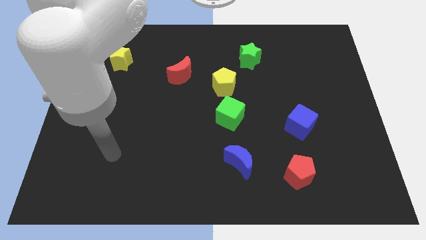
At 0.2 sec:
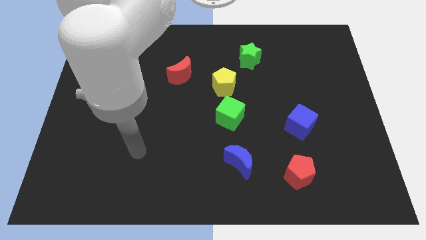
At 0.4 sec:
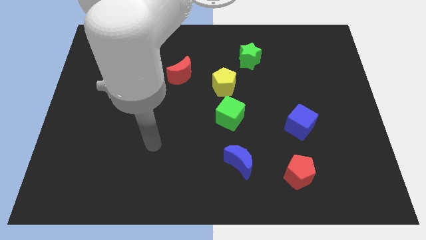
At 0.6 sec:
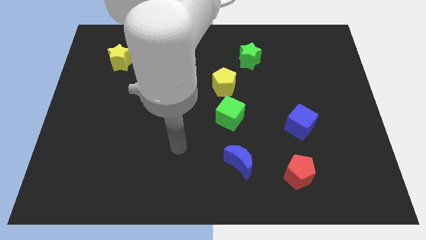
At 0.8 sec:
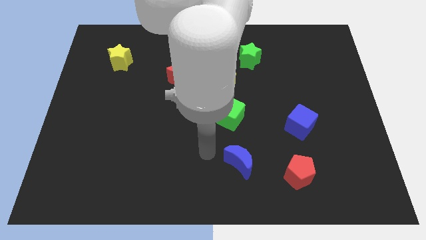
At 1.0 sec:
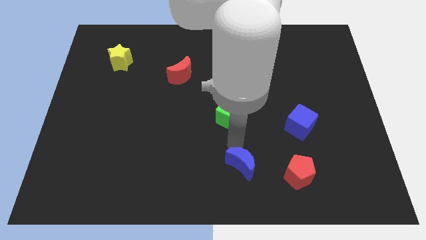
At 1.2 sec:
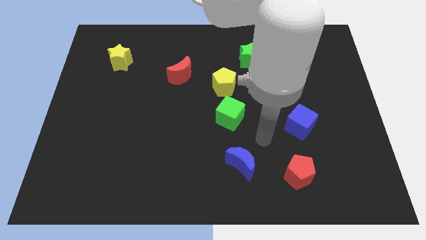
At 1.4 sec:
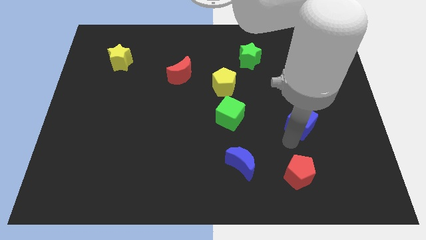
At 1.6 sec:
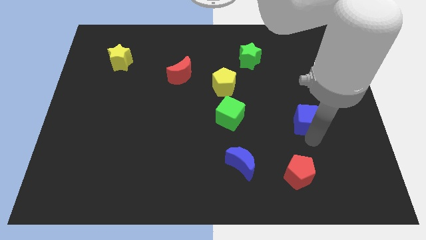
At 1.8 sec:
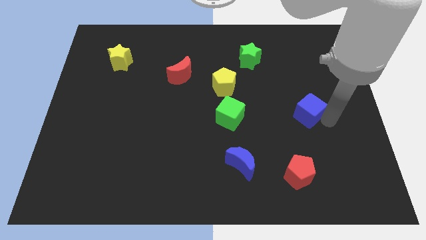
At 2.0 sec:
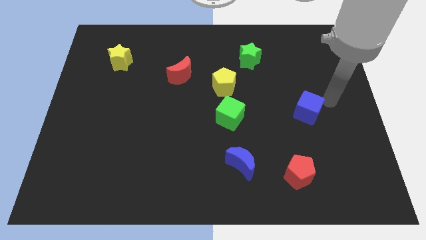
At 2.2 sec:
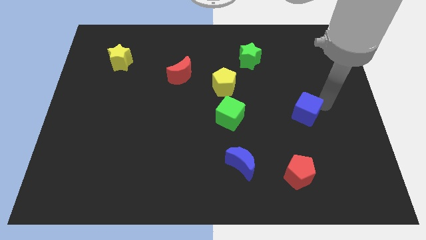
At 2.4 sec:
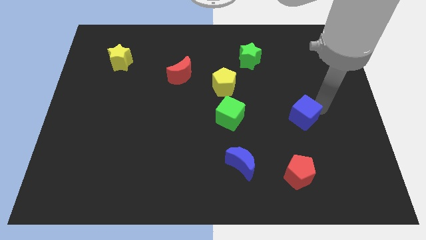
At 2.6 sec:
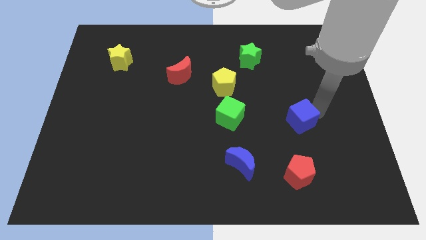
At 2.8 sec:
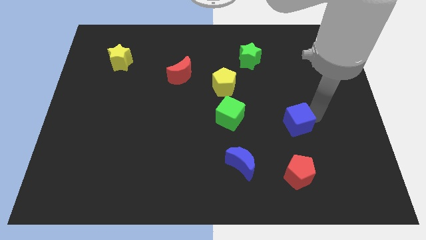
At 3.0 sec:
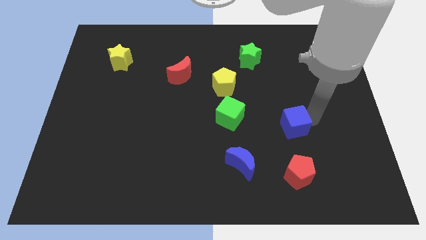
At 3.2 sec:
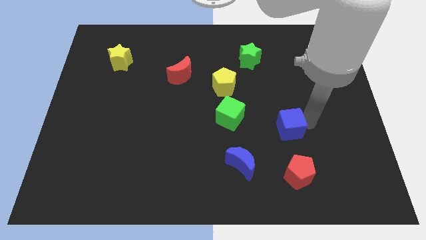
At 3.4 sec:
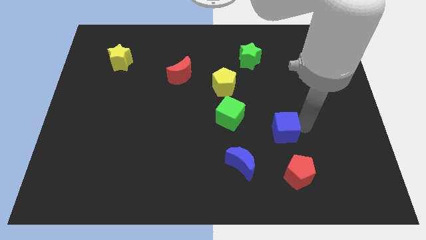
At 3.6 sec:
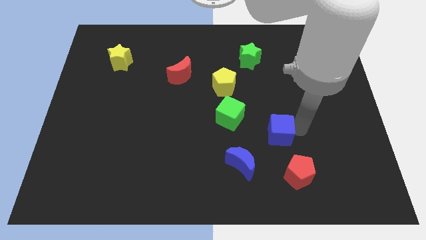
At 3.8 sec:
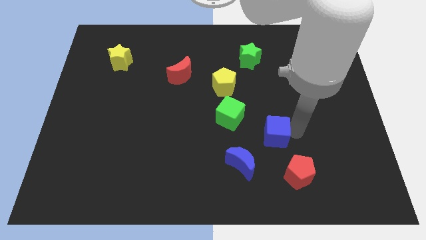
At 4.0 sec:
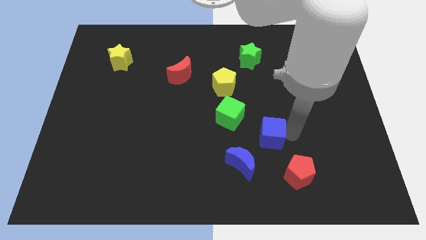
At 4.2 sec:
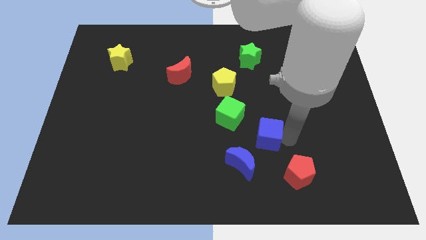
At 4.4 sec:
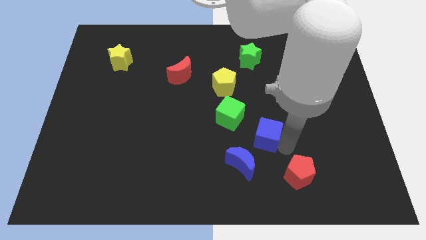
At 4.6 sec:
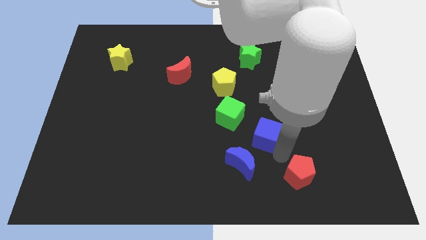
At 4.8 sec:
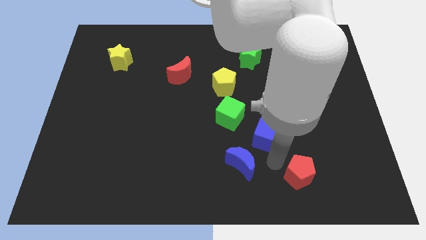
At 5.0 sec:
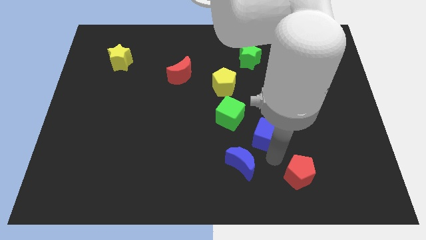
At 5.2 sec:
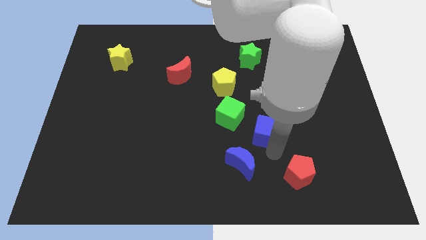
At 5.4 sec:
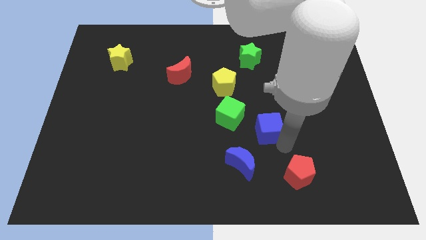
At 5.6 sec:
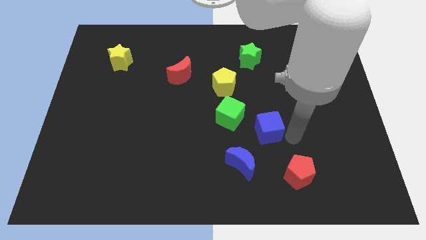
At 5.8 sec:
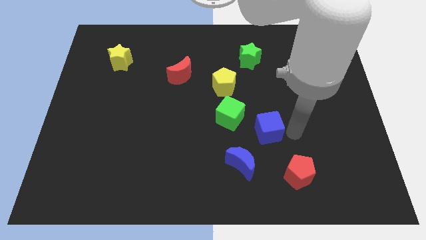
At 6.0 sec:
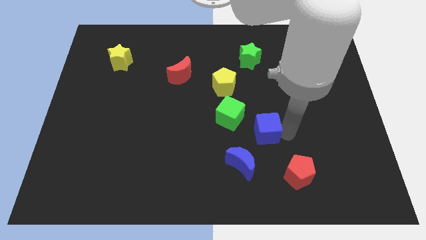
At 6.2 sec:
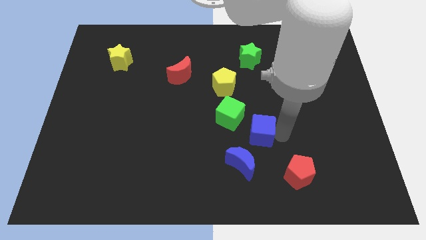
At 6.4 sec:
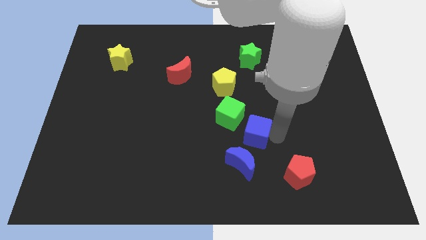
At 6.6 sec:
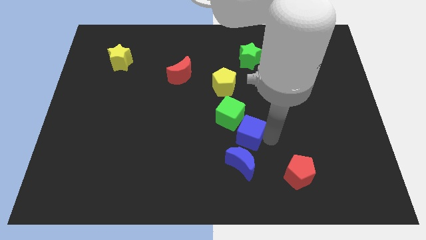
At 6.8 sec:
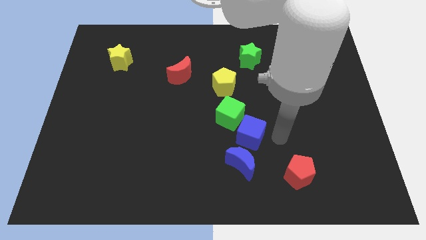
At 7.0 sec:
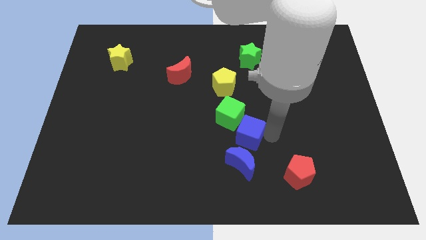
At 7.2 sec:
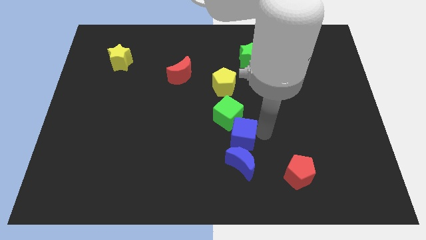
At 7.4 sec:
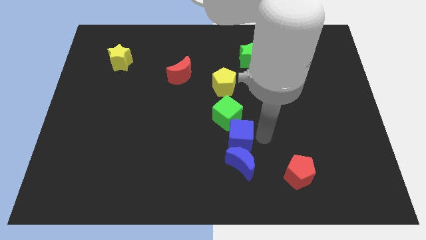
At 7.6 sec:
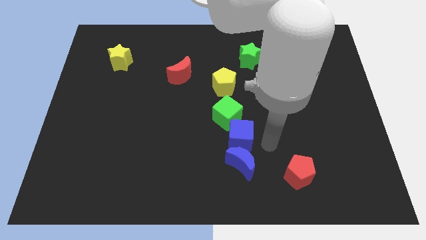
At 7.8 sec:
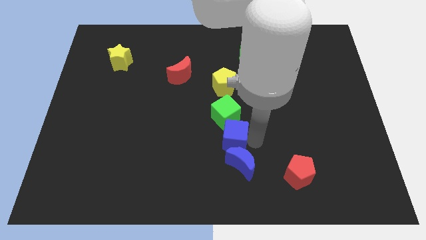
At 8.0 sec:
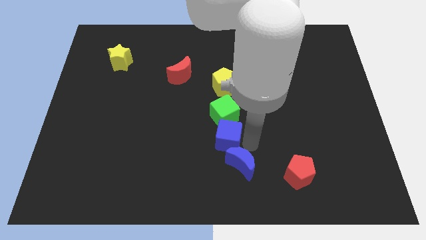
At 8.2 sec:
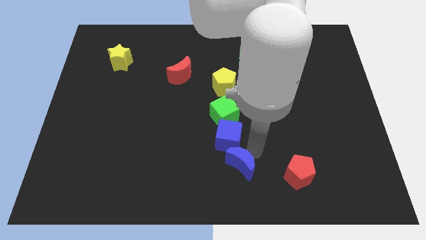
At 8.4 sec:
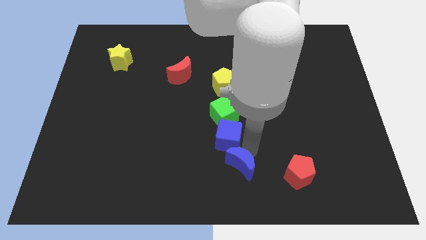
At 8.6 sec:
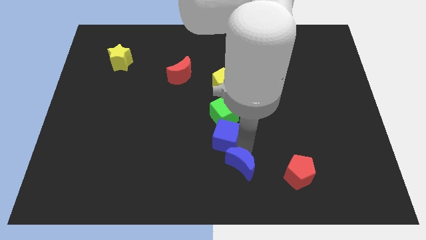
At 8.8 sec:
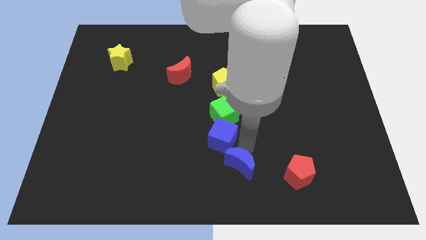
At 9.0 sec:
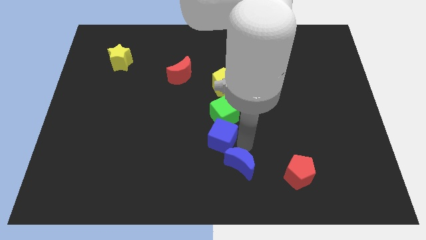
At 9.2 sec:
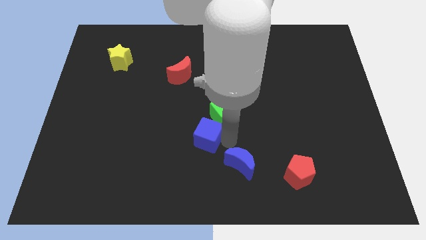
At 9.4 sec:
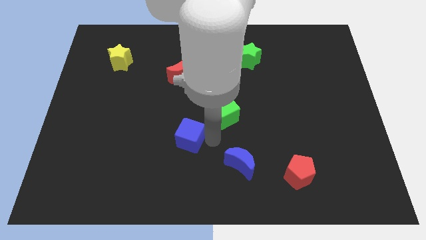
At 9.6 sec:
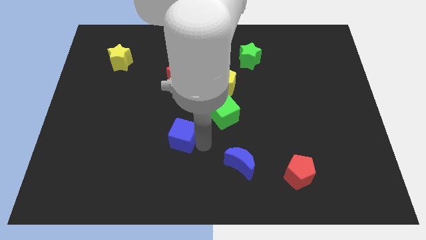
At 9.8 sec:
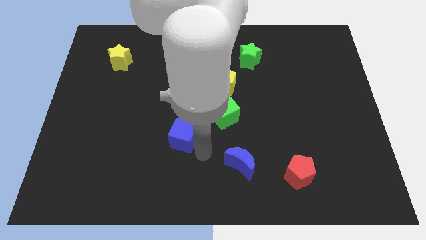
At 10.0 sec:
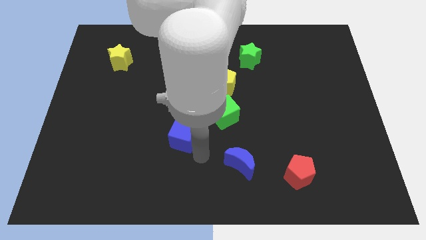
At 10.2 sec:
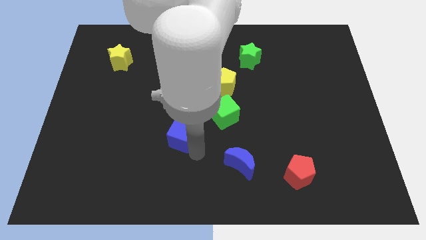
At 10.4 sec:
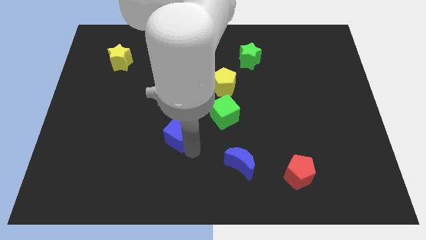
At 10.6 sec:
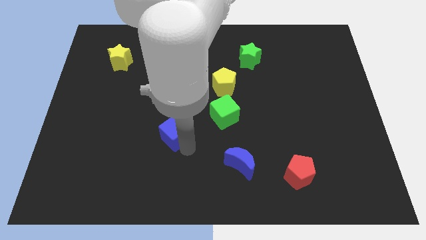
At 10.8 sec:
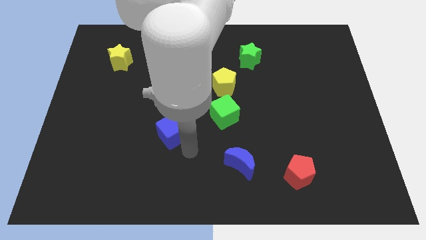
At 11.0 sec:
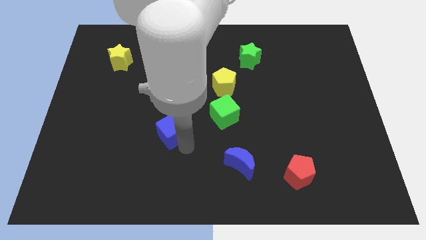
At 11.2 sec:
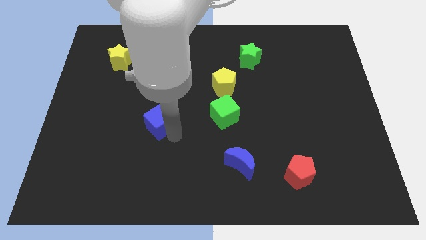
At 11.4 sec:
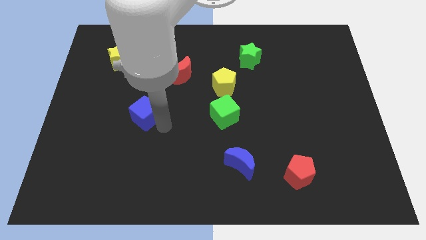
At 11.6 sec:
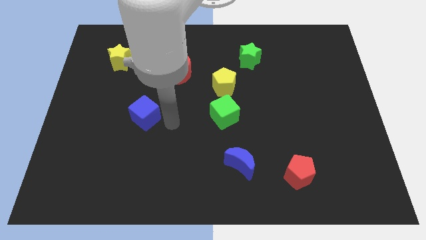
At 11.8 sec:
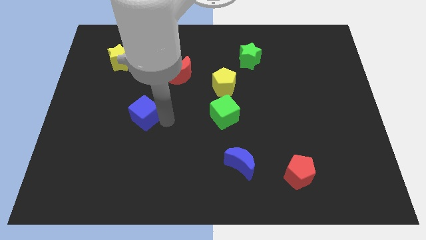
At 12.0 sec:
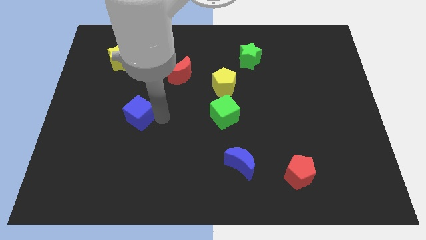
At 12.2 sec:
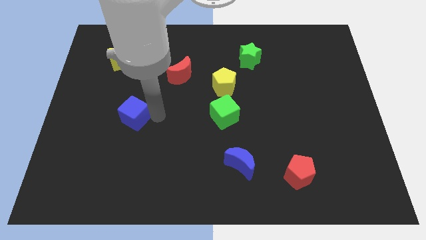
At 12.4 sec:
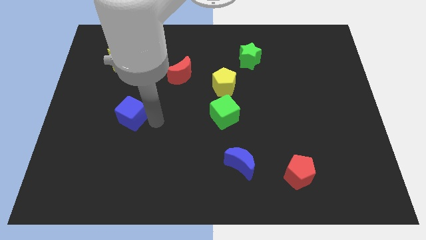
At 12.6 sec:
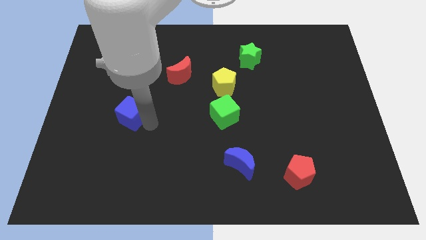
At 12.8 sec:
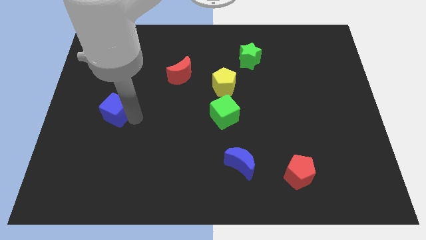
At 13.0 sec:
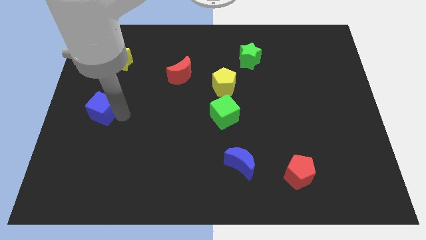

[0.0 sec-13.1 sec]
slide the blue cube to the center left

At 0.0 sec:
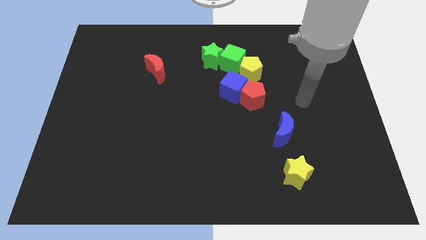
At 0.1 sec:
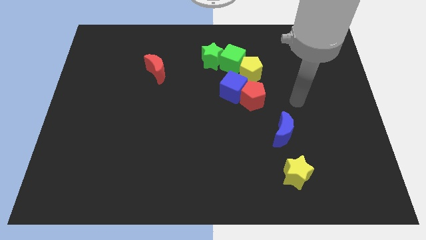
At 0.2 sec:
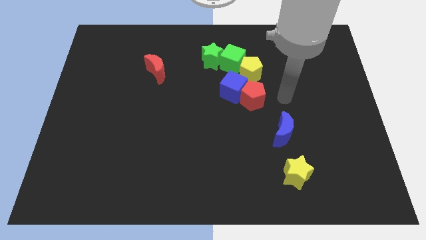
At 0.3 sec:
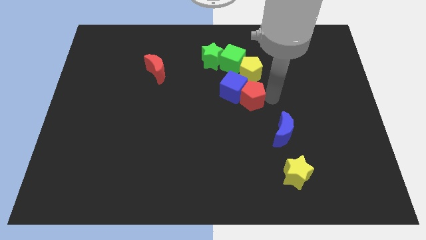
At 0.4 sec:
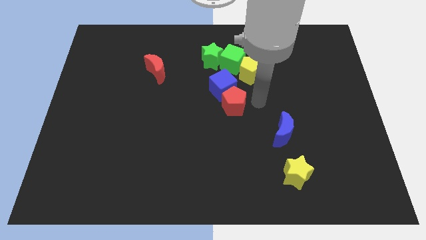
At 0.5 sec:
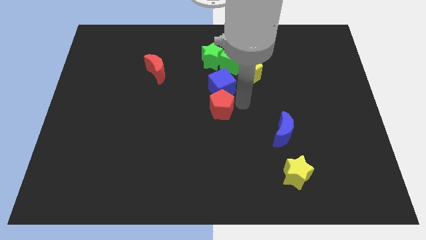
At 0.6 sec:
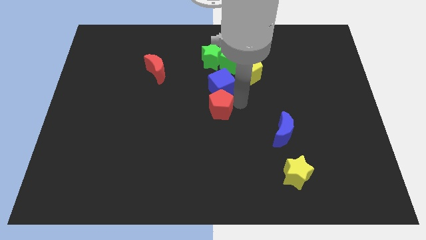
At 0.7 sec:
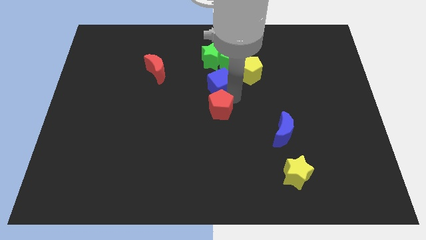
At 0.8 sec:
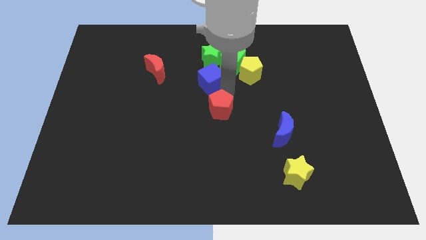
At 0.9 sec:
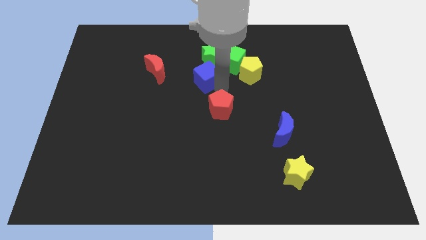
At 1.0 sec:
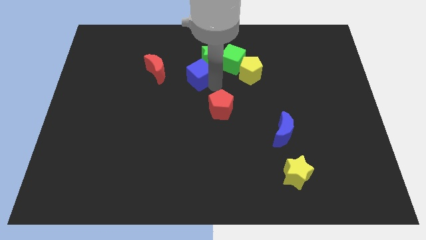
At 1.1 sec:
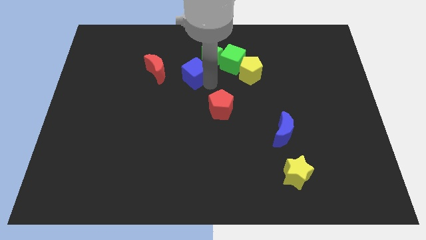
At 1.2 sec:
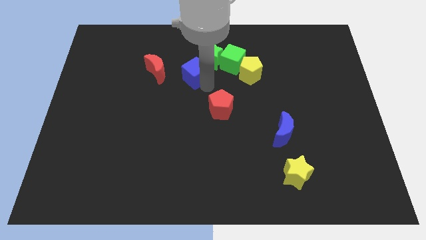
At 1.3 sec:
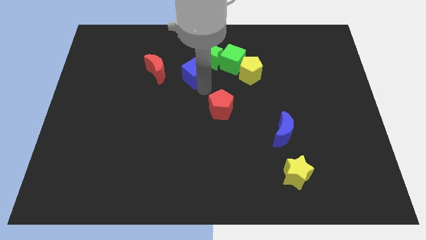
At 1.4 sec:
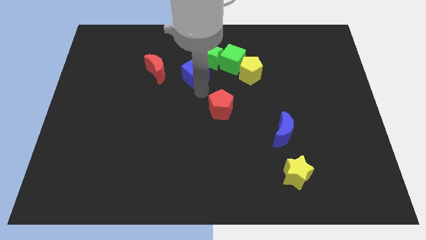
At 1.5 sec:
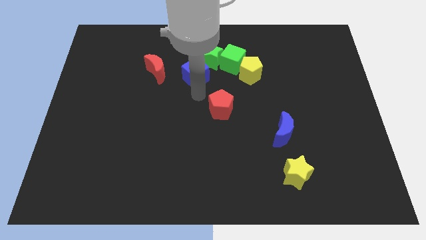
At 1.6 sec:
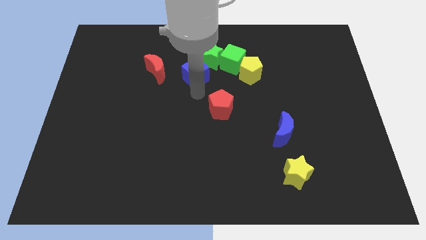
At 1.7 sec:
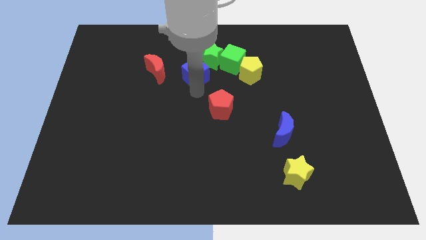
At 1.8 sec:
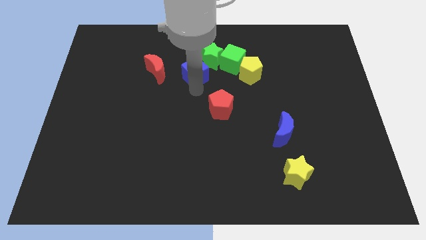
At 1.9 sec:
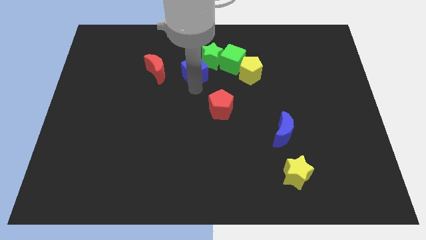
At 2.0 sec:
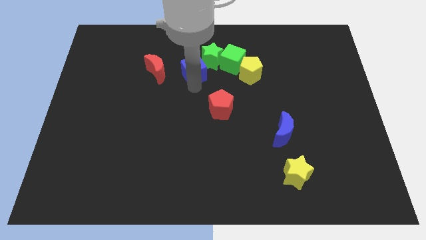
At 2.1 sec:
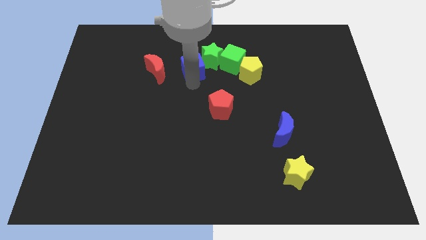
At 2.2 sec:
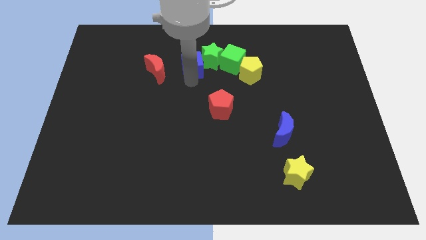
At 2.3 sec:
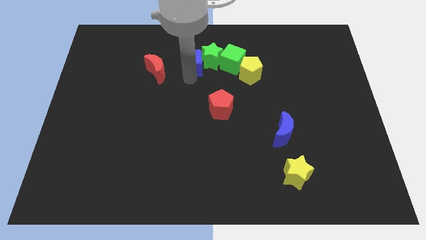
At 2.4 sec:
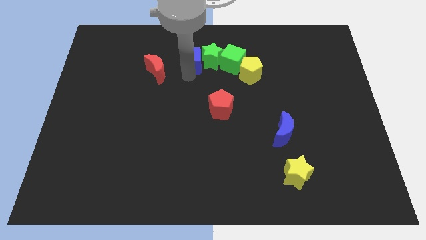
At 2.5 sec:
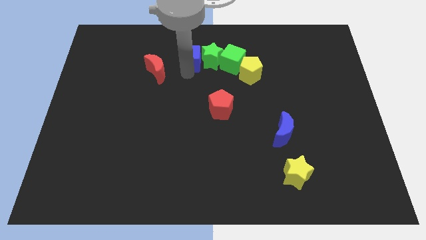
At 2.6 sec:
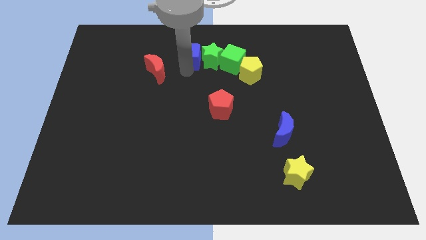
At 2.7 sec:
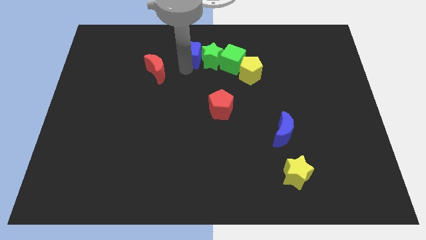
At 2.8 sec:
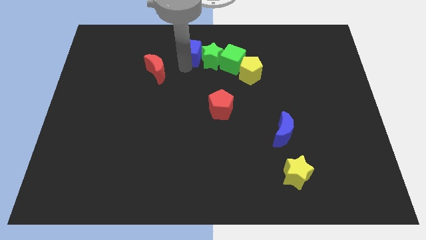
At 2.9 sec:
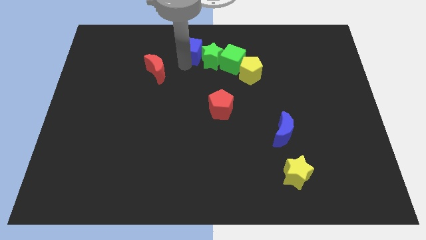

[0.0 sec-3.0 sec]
push the blue cube to the top
